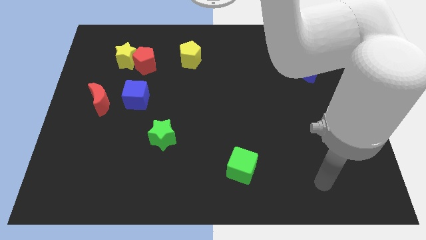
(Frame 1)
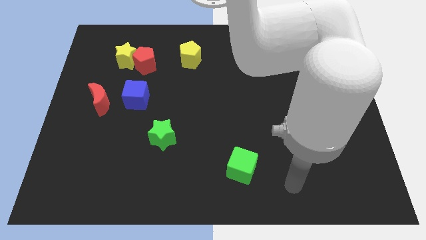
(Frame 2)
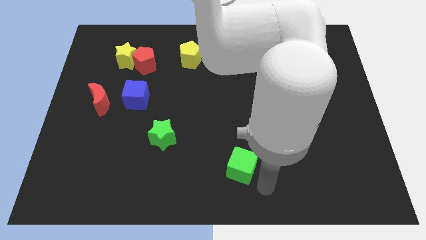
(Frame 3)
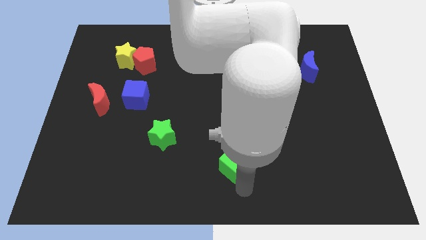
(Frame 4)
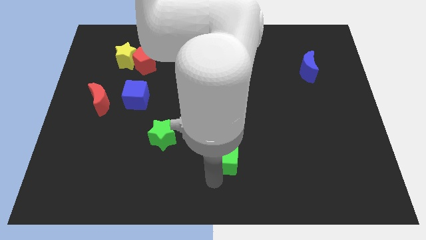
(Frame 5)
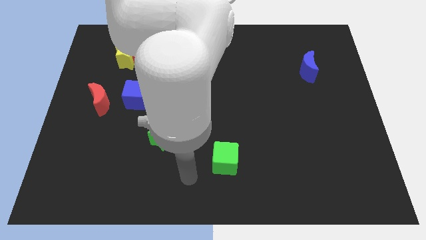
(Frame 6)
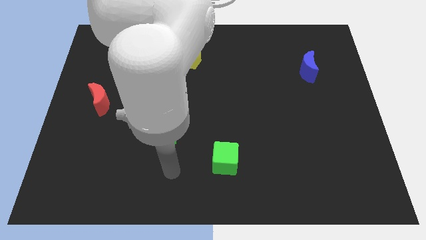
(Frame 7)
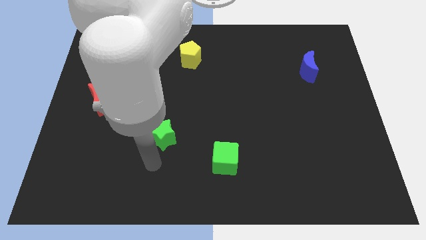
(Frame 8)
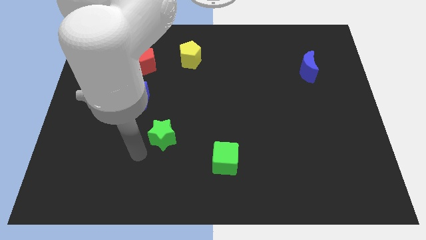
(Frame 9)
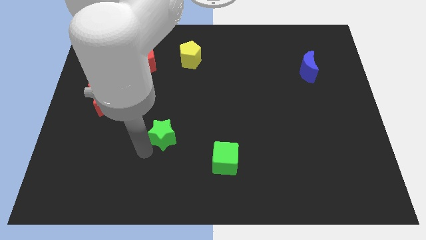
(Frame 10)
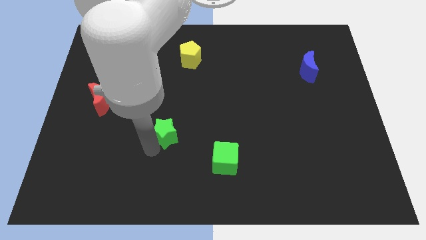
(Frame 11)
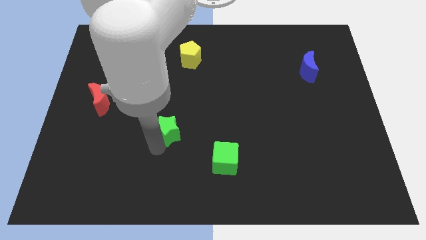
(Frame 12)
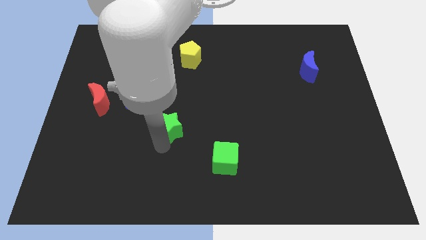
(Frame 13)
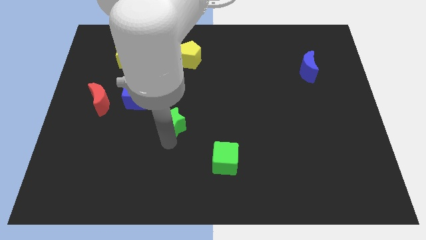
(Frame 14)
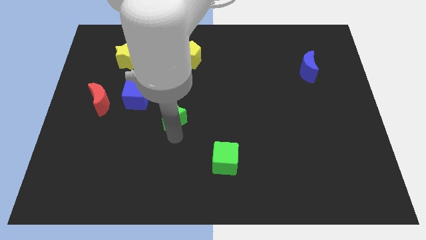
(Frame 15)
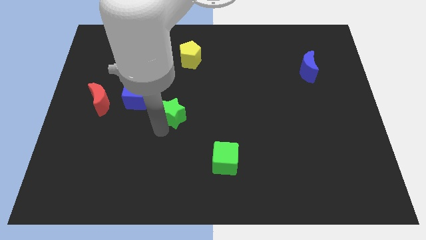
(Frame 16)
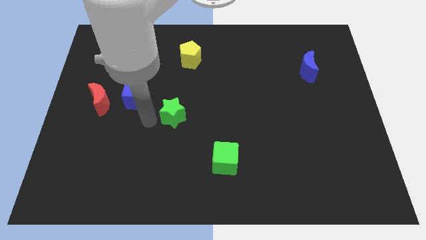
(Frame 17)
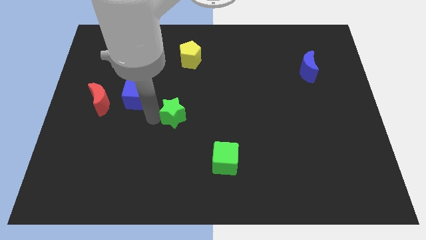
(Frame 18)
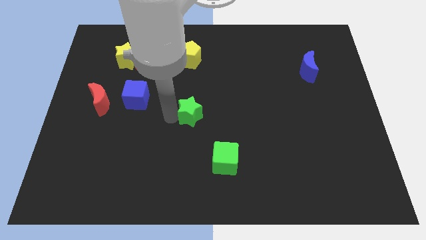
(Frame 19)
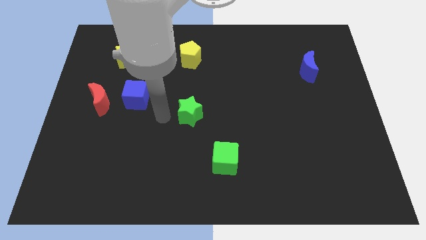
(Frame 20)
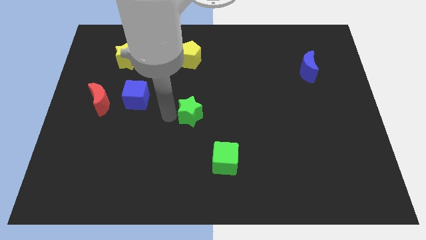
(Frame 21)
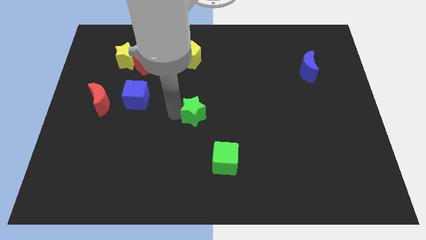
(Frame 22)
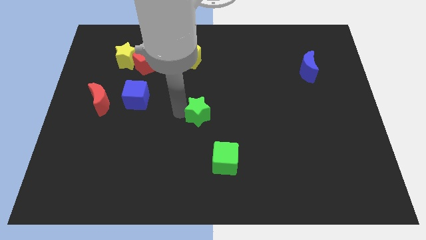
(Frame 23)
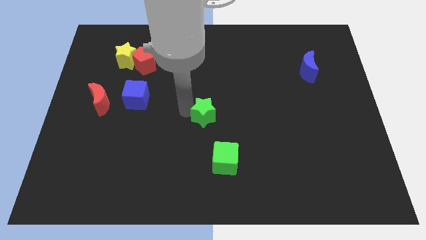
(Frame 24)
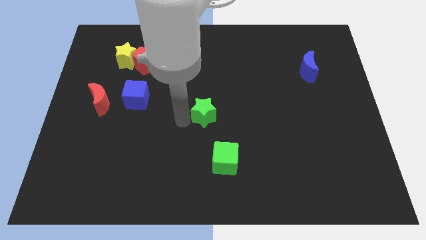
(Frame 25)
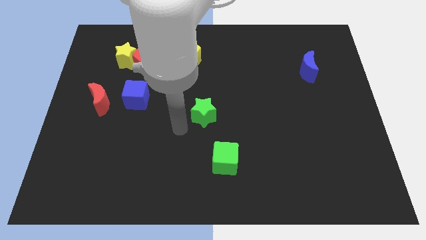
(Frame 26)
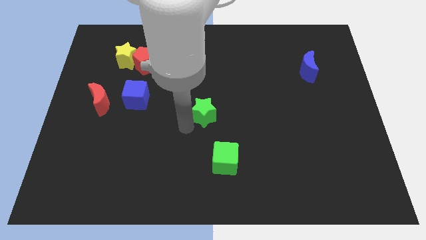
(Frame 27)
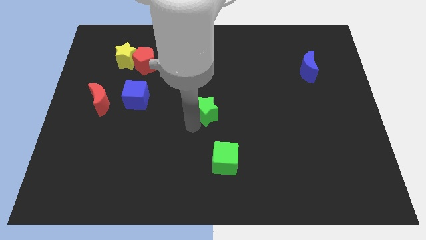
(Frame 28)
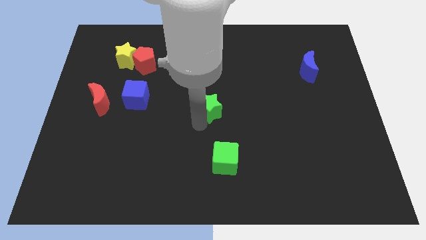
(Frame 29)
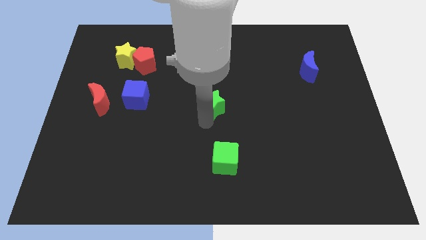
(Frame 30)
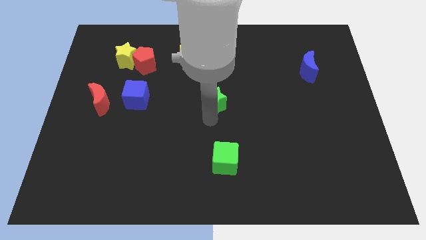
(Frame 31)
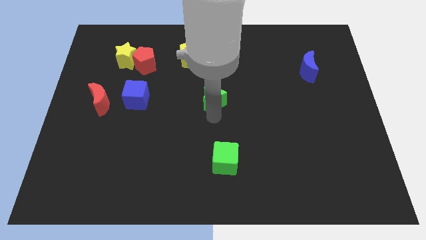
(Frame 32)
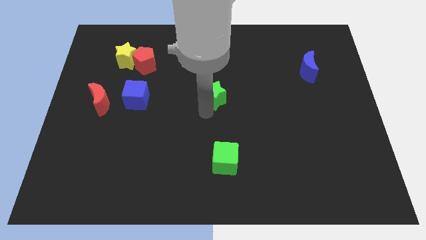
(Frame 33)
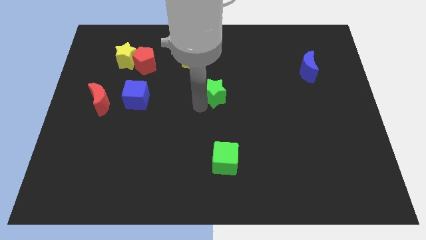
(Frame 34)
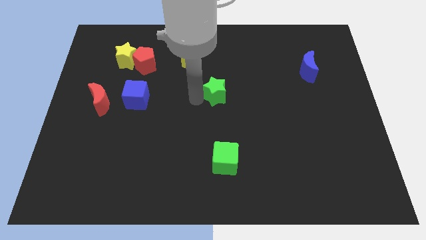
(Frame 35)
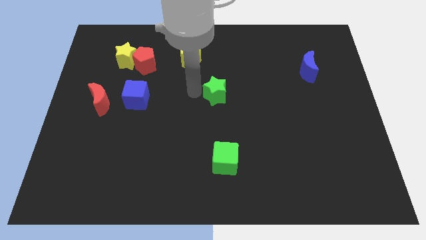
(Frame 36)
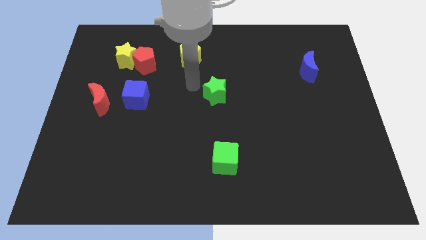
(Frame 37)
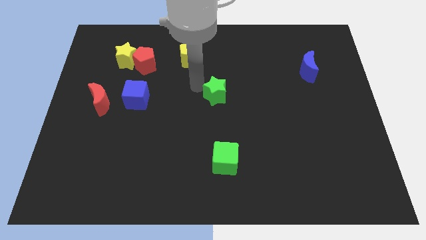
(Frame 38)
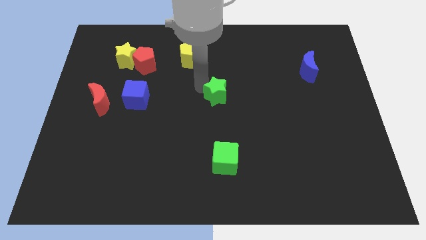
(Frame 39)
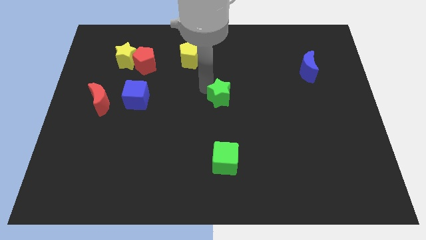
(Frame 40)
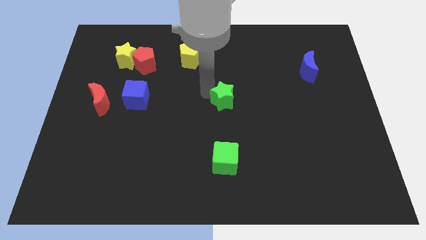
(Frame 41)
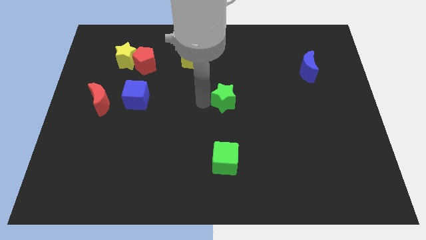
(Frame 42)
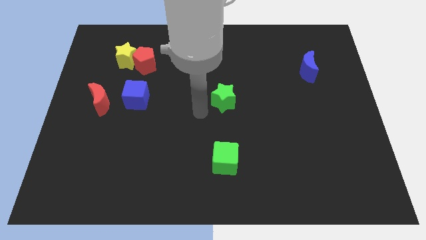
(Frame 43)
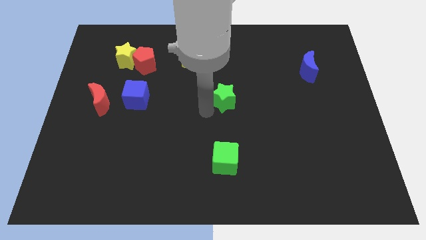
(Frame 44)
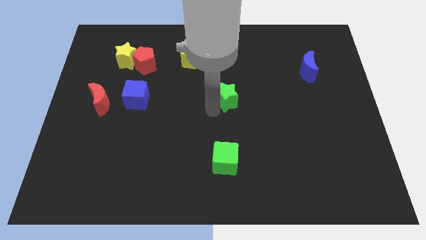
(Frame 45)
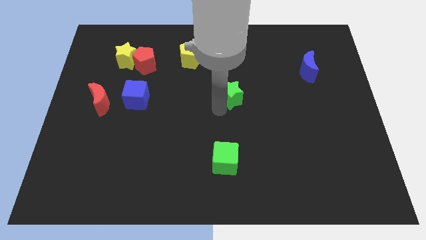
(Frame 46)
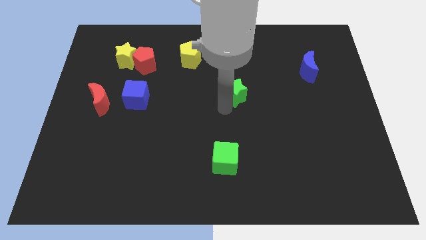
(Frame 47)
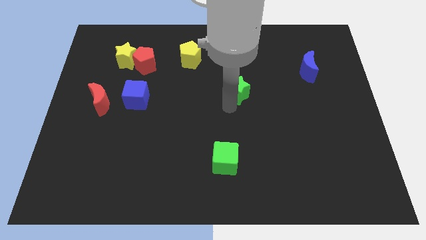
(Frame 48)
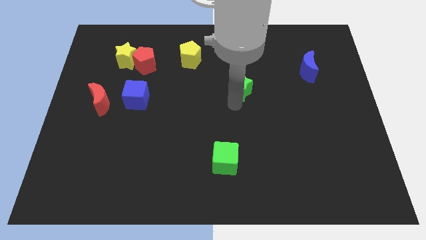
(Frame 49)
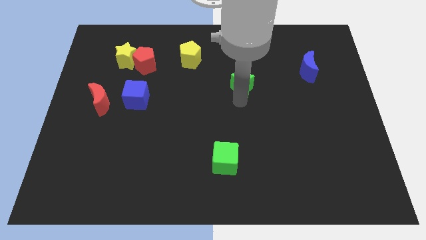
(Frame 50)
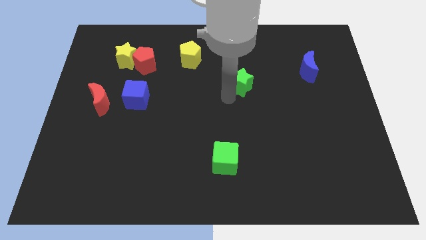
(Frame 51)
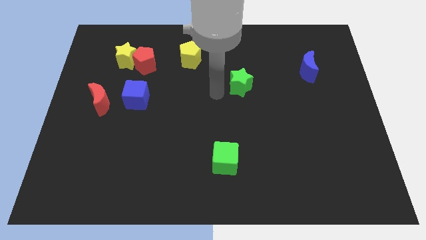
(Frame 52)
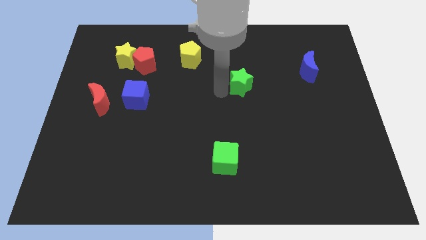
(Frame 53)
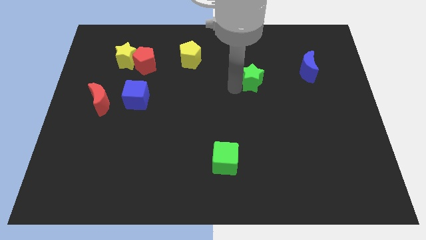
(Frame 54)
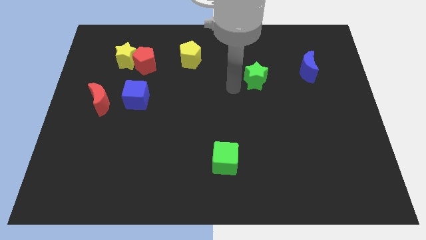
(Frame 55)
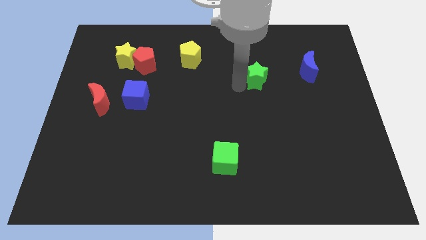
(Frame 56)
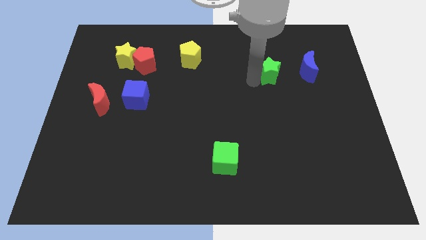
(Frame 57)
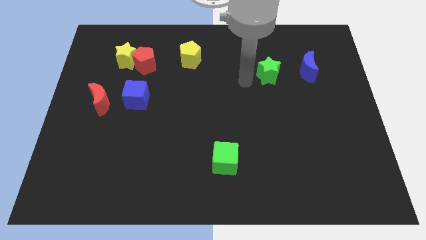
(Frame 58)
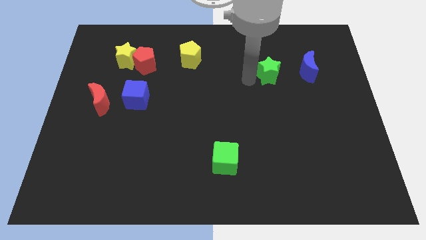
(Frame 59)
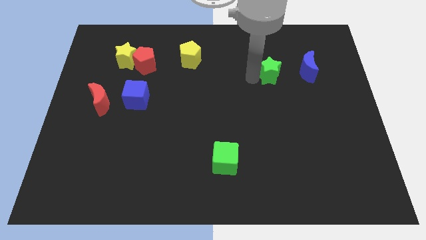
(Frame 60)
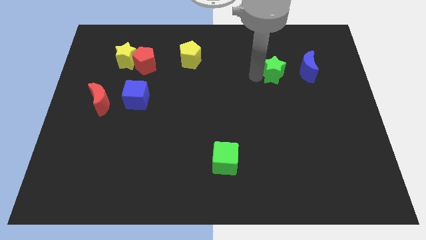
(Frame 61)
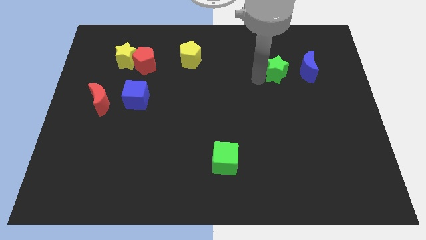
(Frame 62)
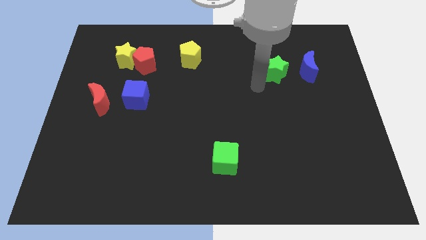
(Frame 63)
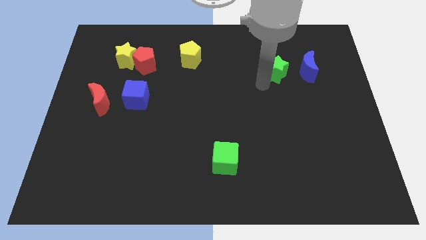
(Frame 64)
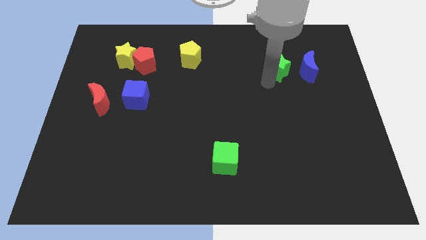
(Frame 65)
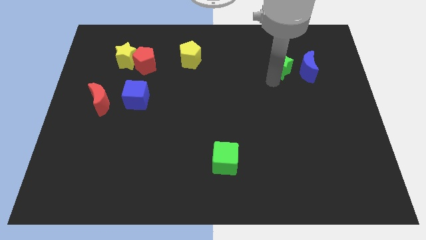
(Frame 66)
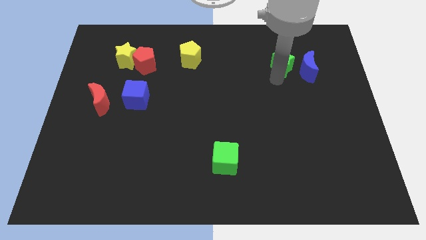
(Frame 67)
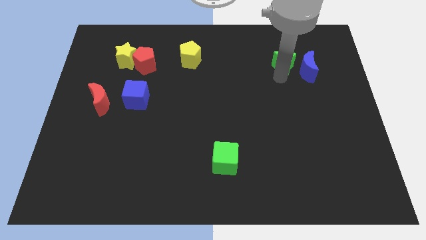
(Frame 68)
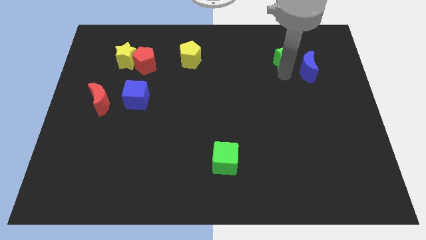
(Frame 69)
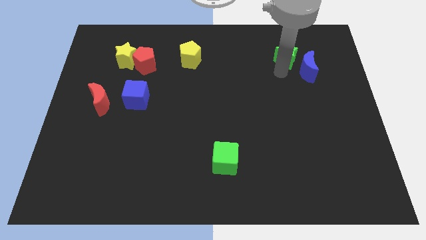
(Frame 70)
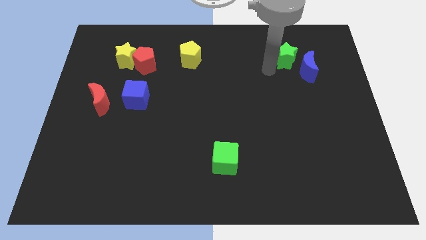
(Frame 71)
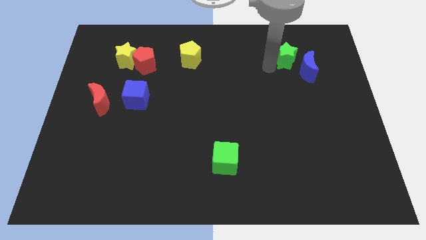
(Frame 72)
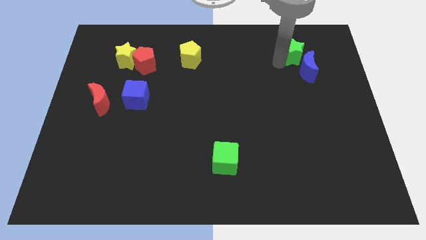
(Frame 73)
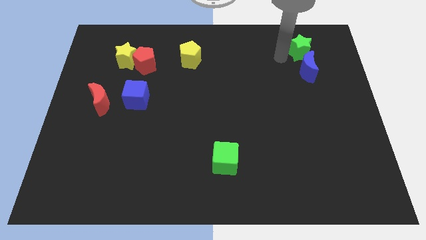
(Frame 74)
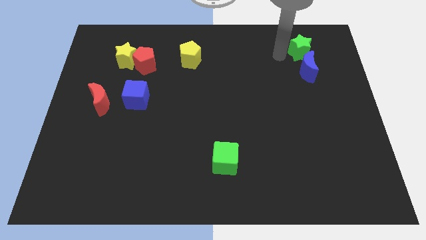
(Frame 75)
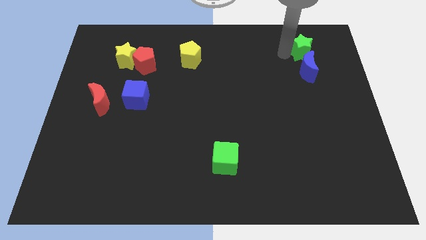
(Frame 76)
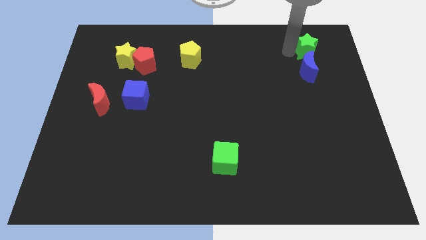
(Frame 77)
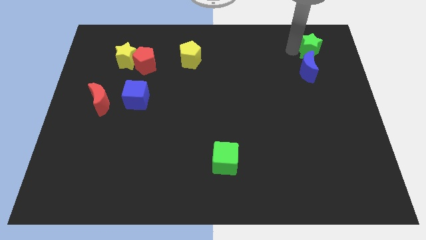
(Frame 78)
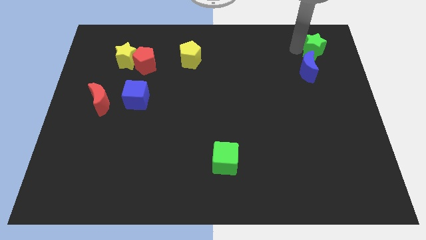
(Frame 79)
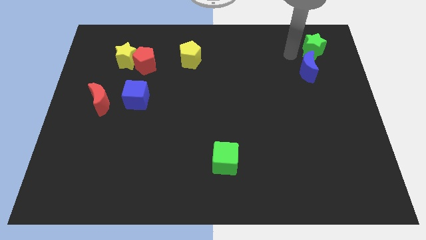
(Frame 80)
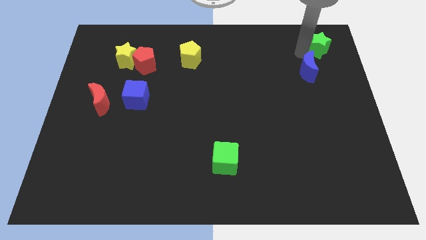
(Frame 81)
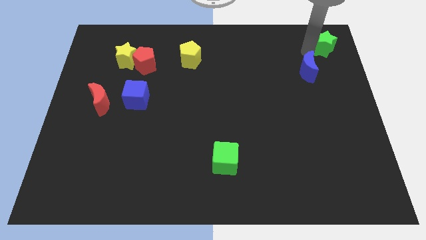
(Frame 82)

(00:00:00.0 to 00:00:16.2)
push the green star to the upper right corner
